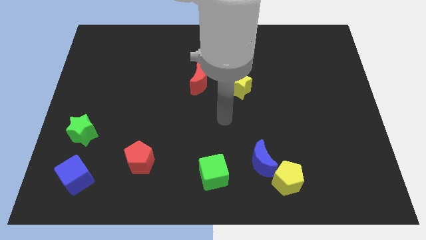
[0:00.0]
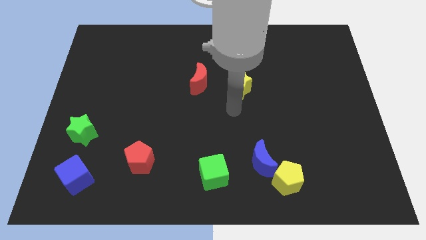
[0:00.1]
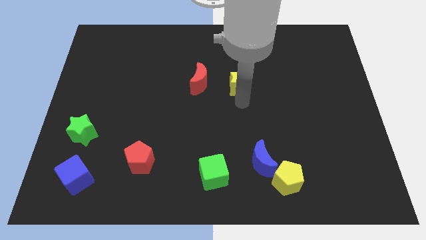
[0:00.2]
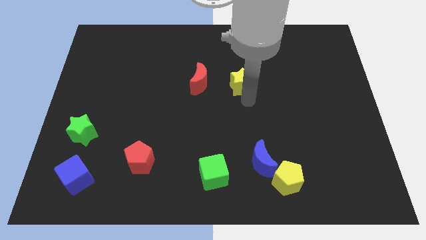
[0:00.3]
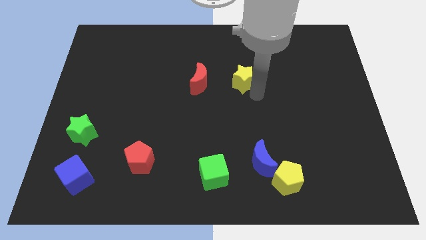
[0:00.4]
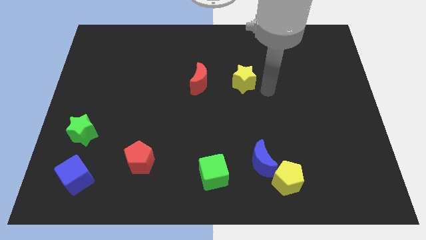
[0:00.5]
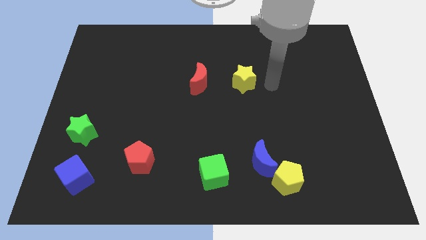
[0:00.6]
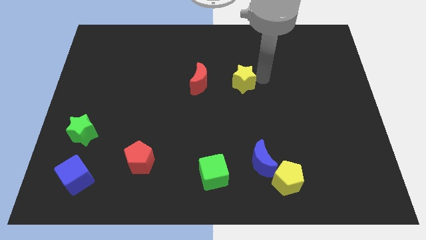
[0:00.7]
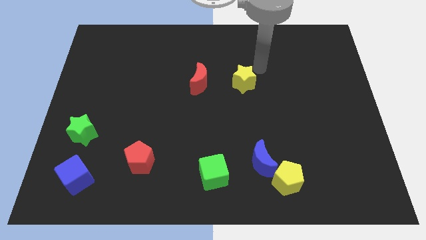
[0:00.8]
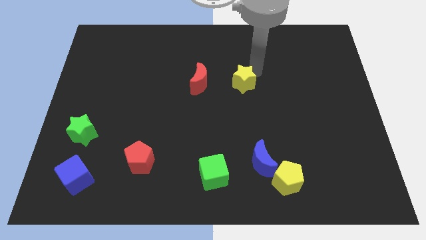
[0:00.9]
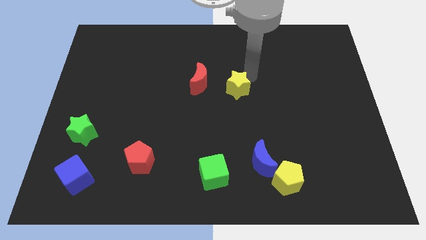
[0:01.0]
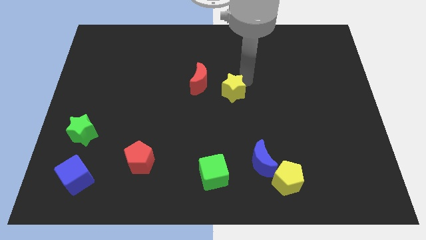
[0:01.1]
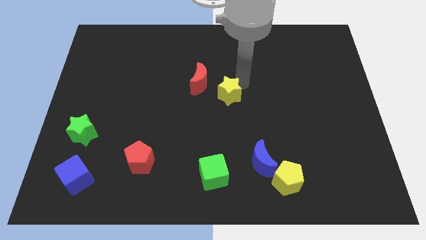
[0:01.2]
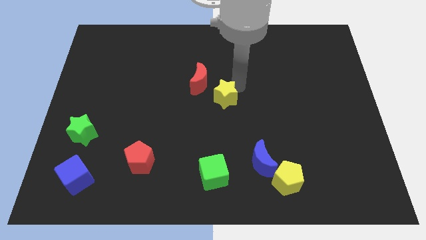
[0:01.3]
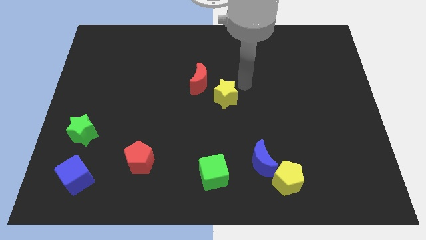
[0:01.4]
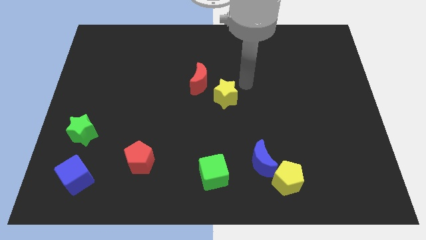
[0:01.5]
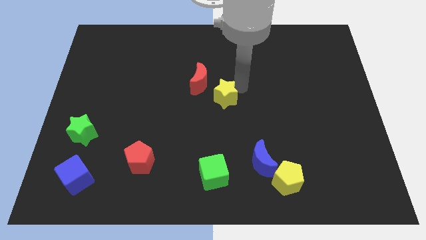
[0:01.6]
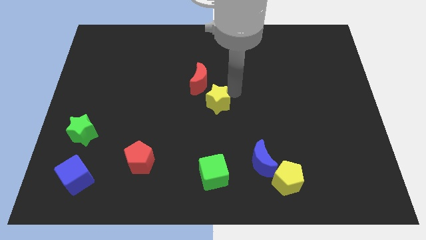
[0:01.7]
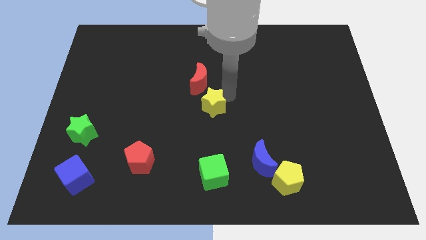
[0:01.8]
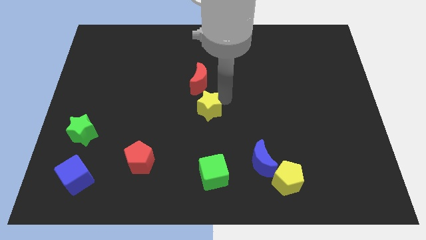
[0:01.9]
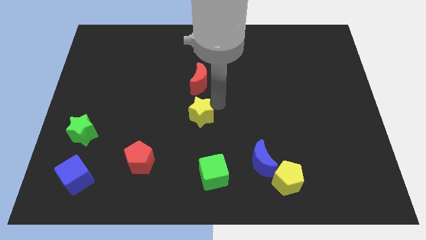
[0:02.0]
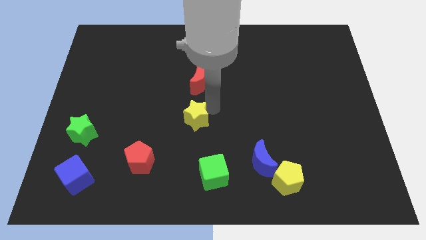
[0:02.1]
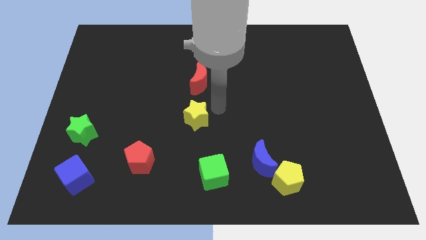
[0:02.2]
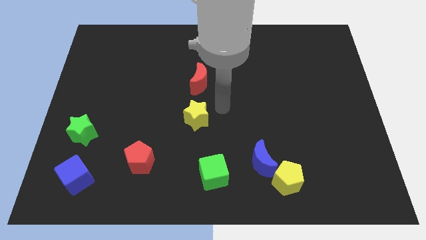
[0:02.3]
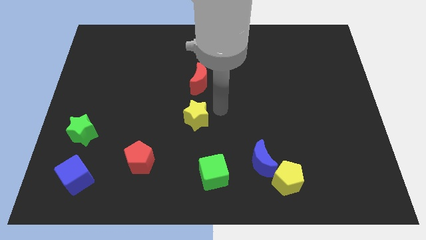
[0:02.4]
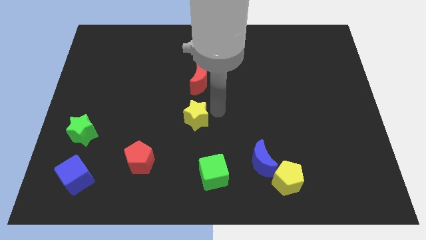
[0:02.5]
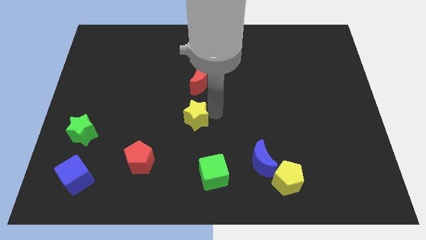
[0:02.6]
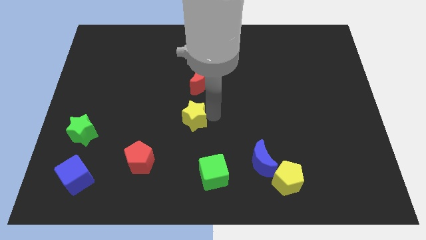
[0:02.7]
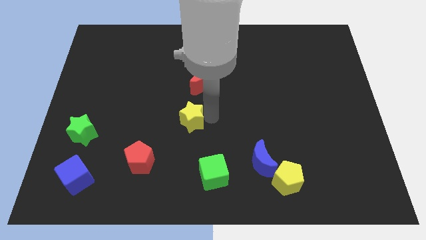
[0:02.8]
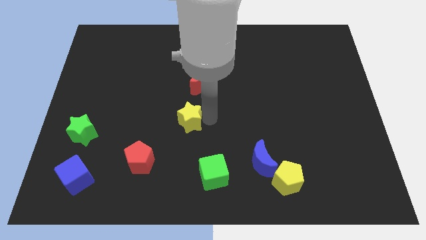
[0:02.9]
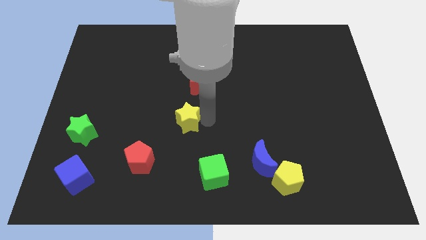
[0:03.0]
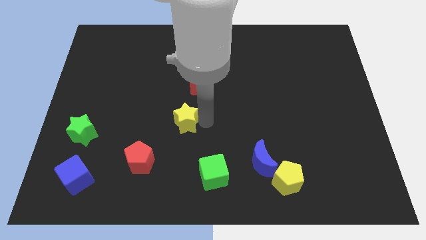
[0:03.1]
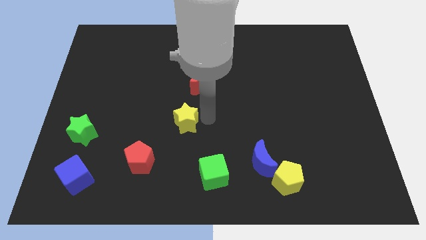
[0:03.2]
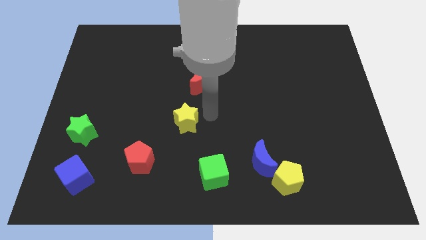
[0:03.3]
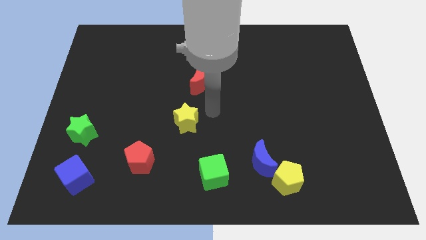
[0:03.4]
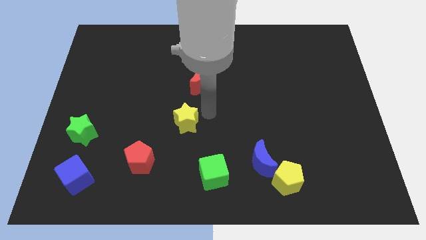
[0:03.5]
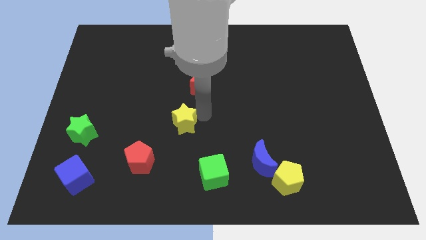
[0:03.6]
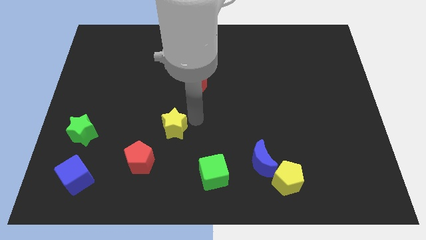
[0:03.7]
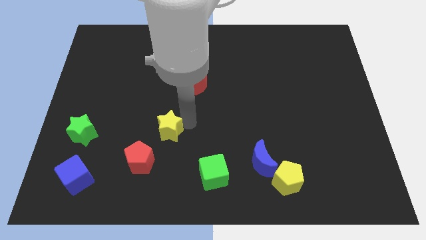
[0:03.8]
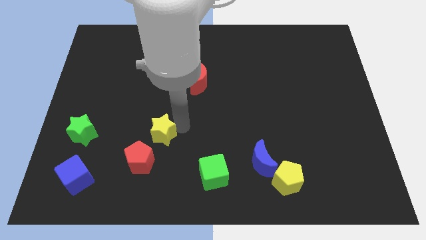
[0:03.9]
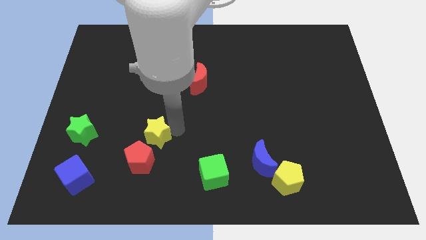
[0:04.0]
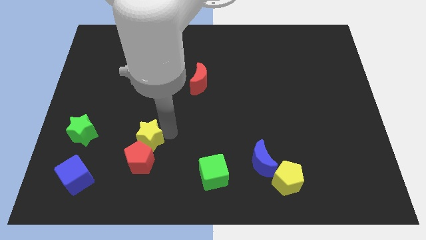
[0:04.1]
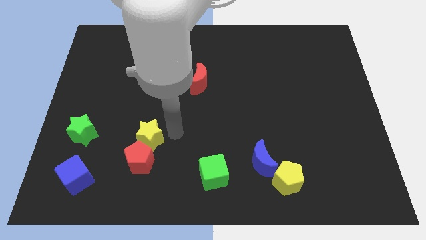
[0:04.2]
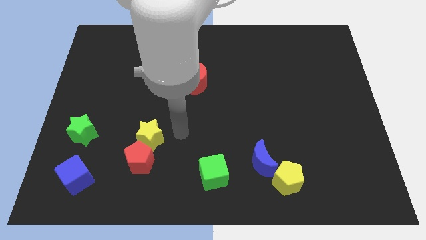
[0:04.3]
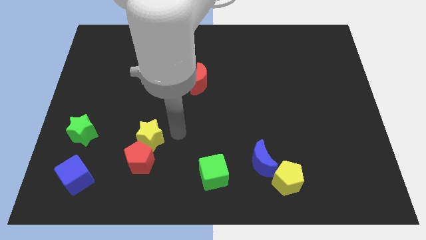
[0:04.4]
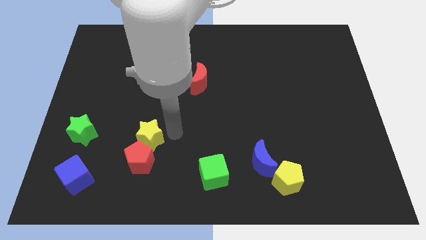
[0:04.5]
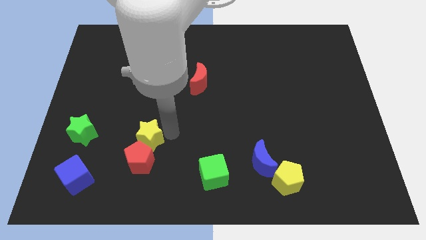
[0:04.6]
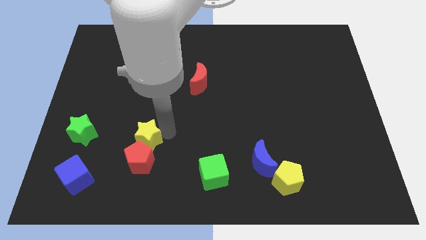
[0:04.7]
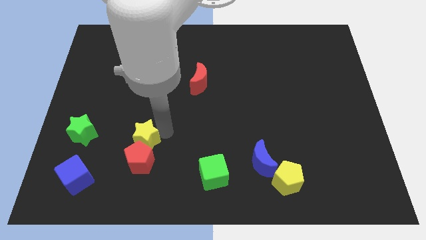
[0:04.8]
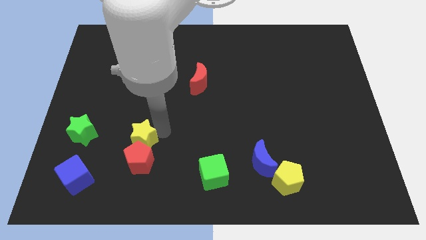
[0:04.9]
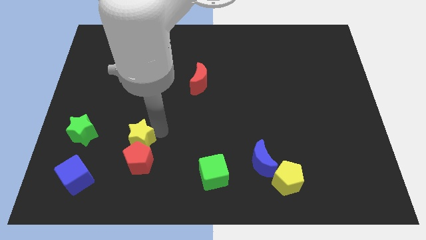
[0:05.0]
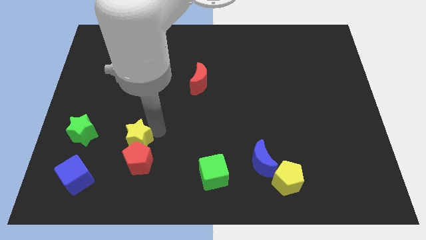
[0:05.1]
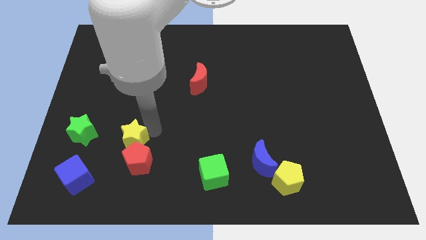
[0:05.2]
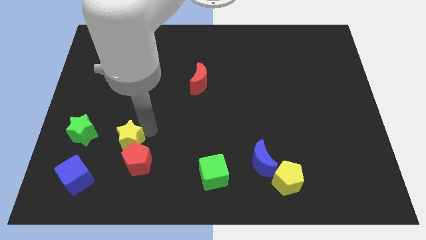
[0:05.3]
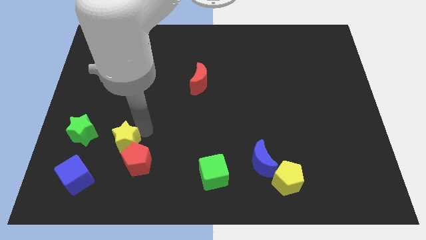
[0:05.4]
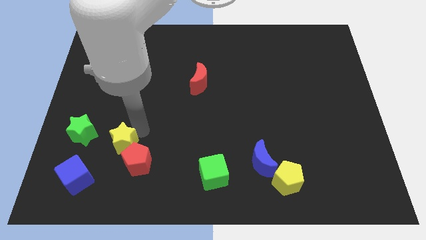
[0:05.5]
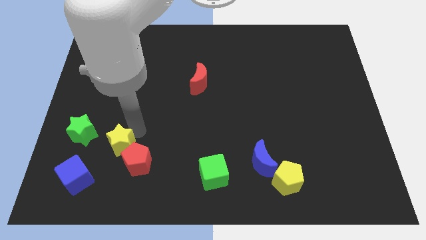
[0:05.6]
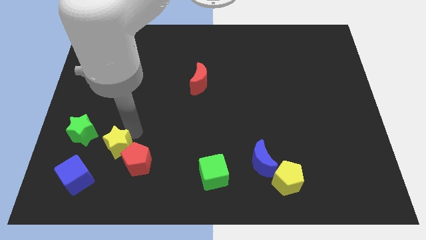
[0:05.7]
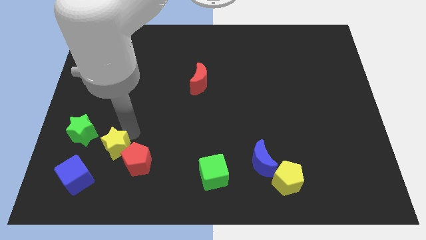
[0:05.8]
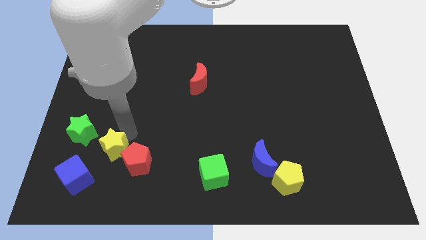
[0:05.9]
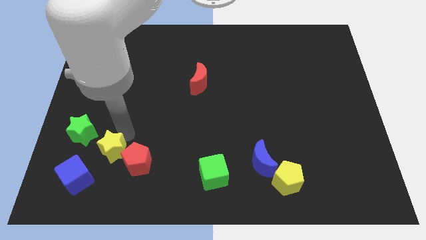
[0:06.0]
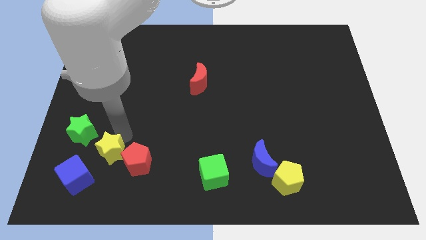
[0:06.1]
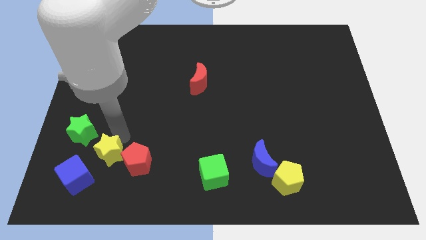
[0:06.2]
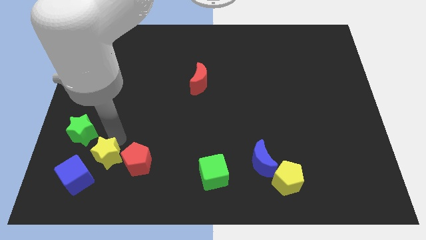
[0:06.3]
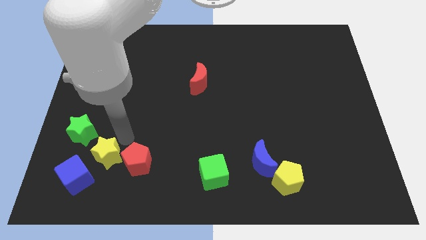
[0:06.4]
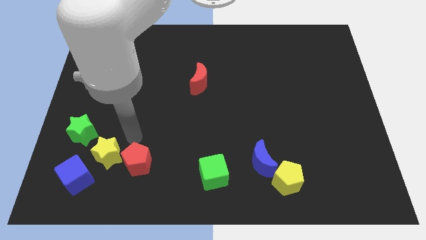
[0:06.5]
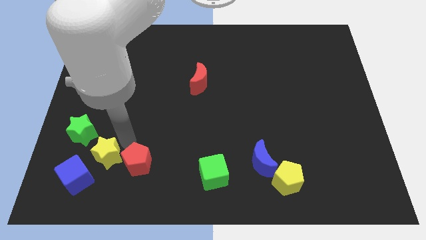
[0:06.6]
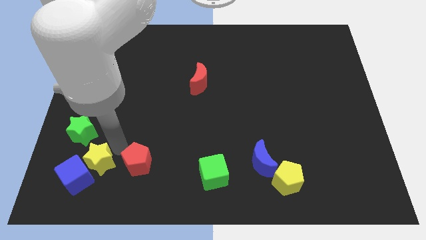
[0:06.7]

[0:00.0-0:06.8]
put the yellow star next to the blue cube
